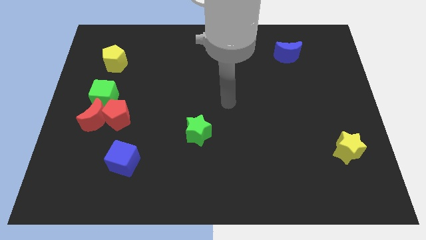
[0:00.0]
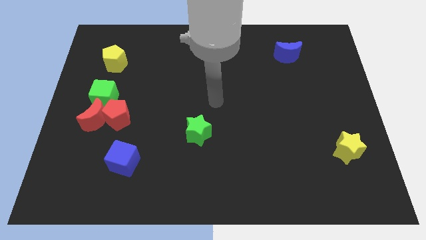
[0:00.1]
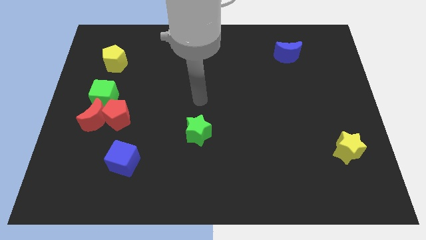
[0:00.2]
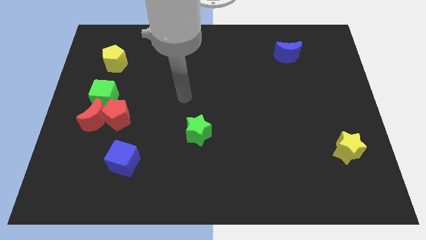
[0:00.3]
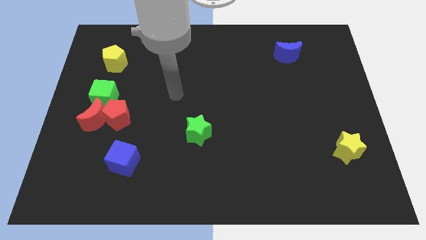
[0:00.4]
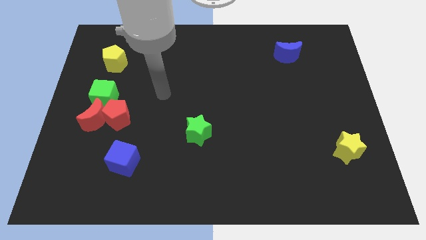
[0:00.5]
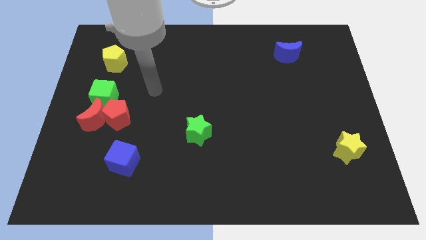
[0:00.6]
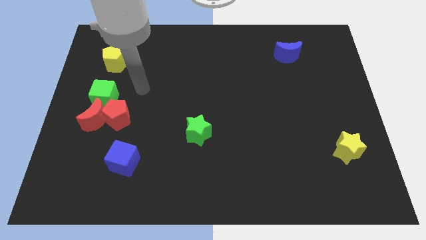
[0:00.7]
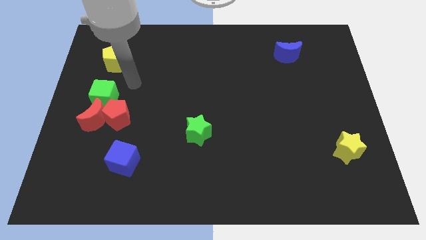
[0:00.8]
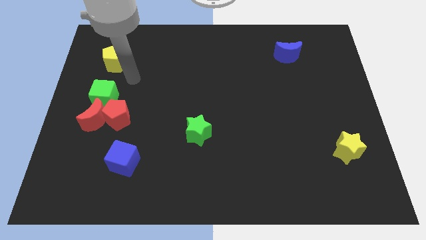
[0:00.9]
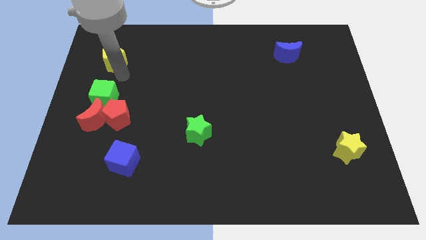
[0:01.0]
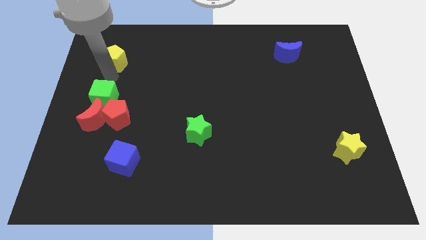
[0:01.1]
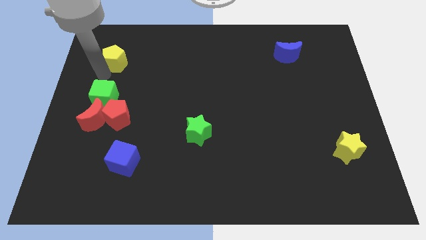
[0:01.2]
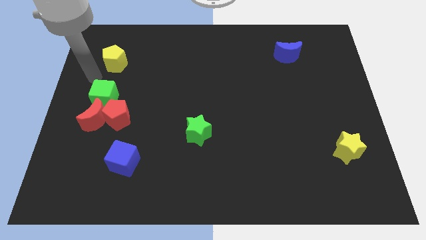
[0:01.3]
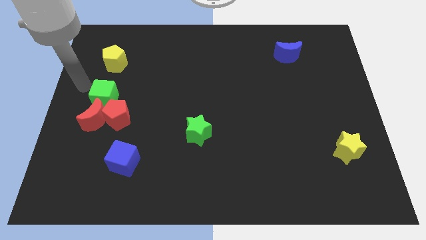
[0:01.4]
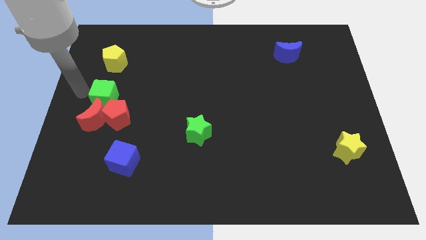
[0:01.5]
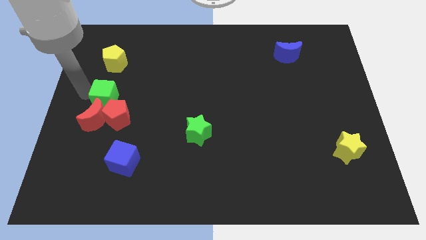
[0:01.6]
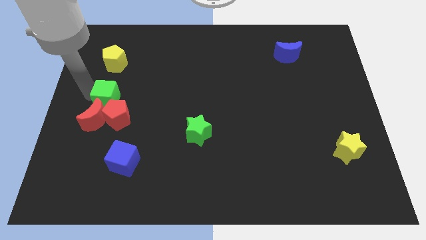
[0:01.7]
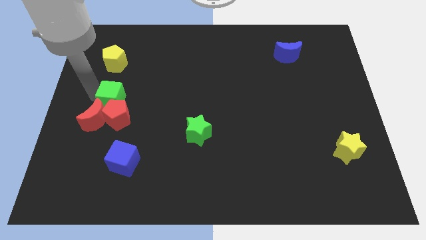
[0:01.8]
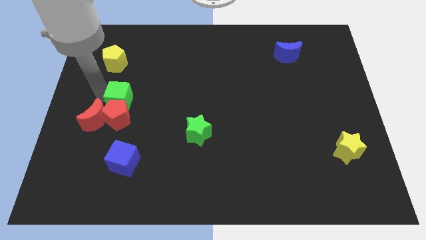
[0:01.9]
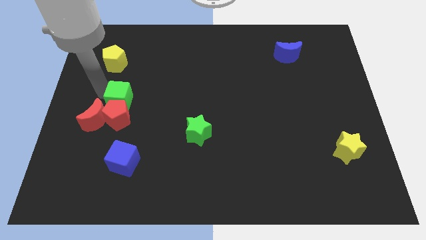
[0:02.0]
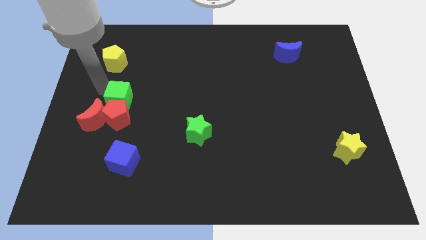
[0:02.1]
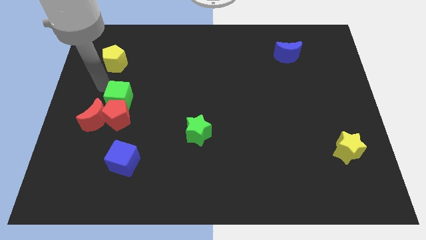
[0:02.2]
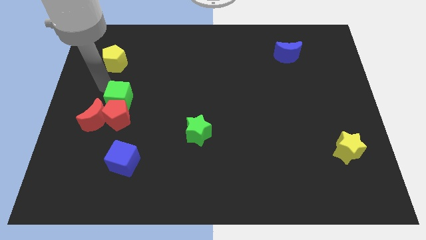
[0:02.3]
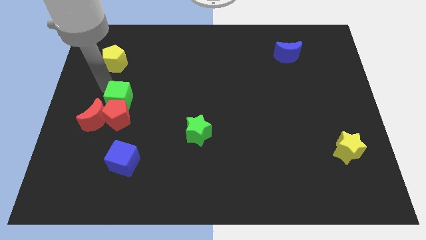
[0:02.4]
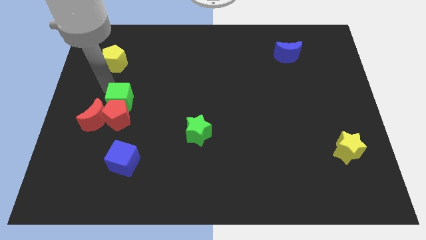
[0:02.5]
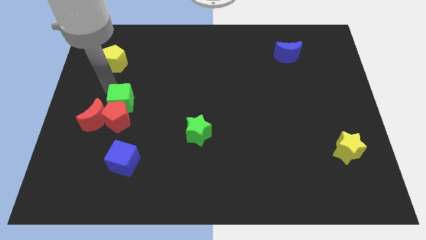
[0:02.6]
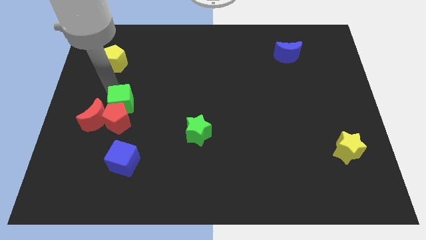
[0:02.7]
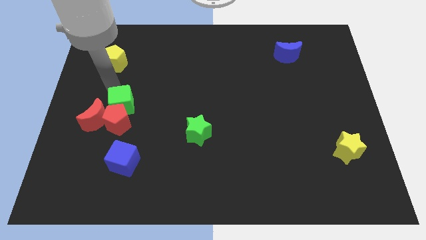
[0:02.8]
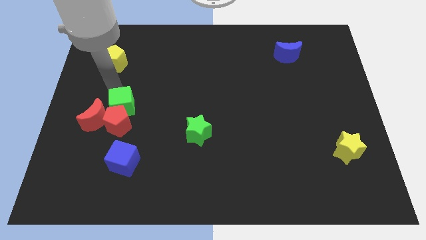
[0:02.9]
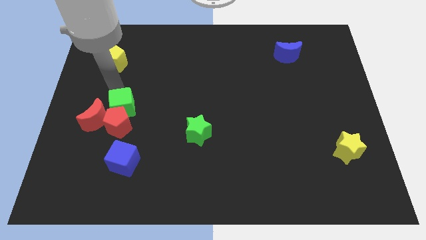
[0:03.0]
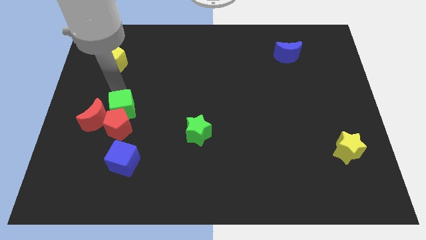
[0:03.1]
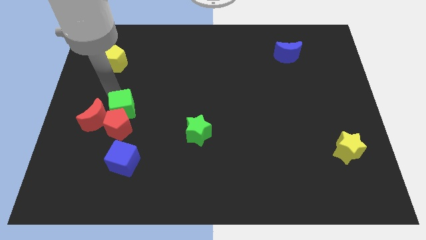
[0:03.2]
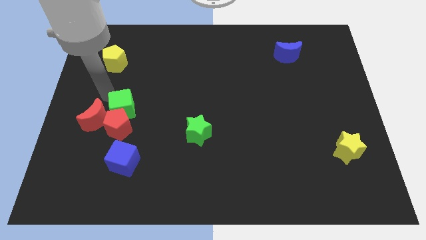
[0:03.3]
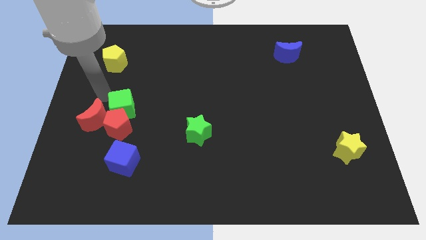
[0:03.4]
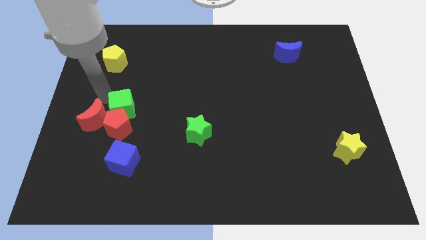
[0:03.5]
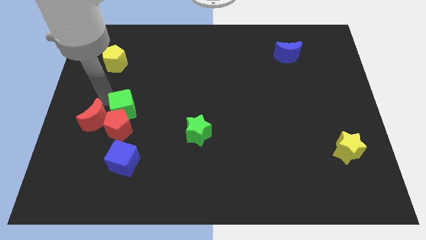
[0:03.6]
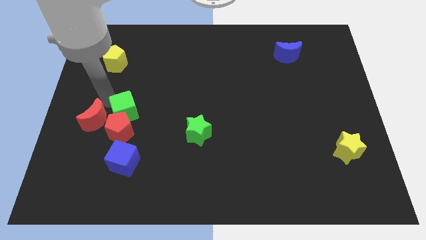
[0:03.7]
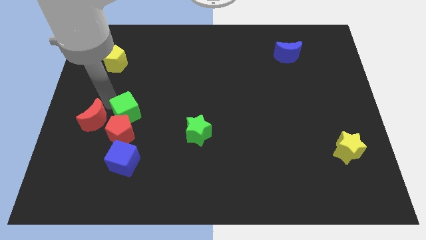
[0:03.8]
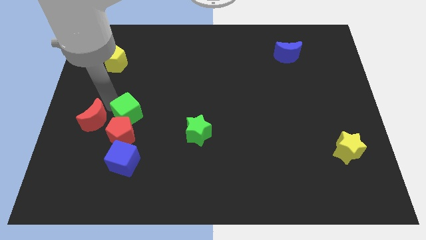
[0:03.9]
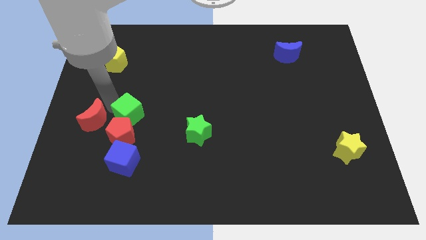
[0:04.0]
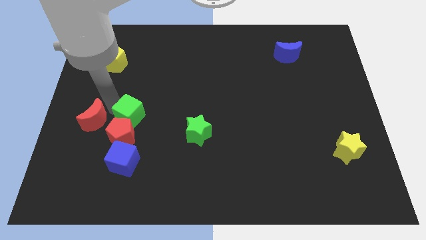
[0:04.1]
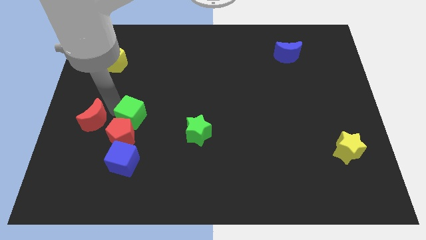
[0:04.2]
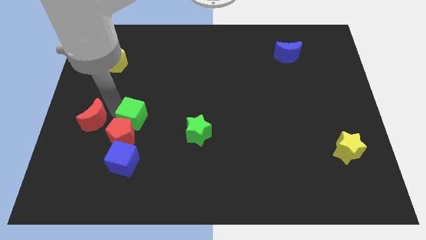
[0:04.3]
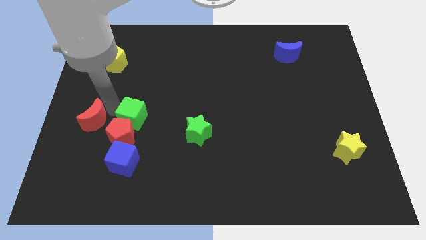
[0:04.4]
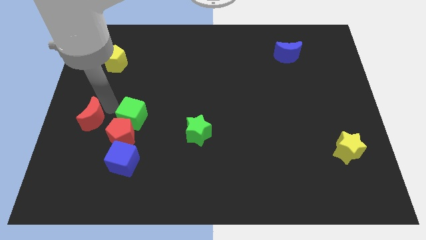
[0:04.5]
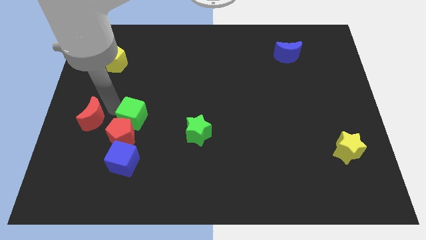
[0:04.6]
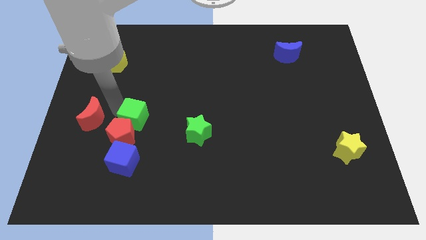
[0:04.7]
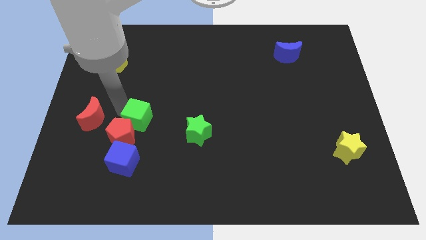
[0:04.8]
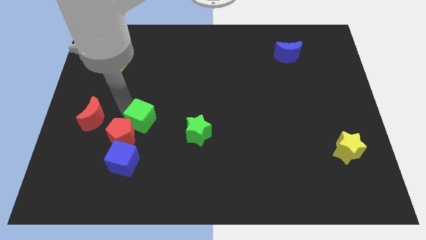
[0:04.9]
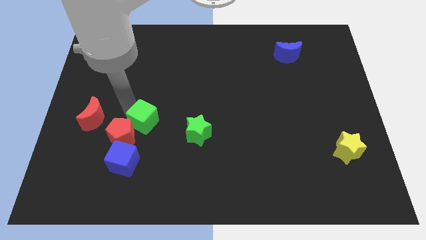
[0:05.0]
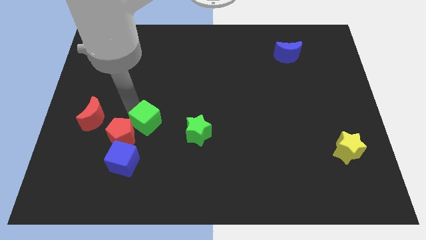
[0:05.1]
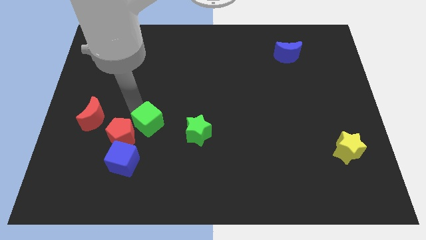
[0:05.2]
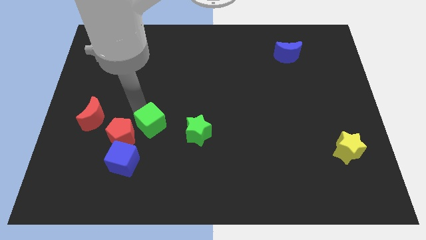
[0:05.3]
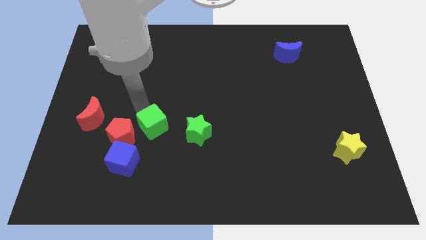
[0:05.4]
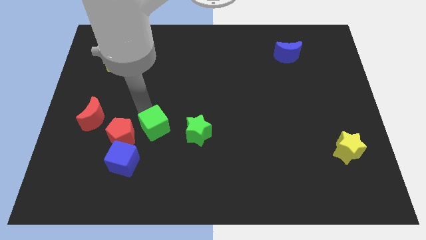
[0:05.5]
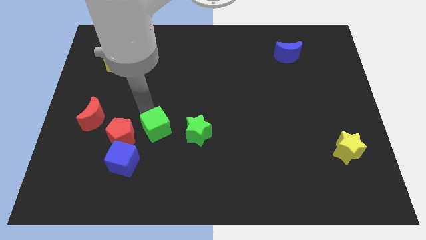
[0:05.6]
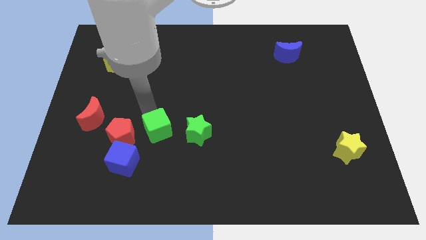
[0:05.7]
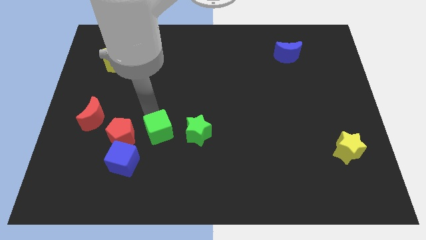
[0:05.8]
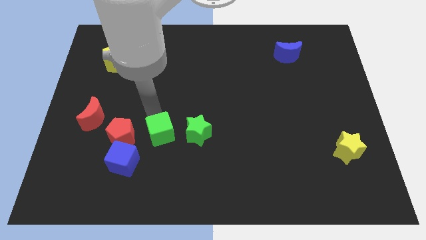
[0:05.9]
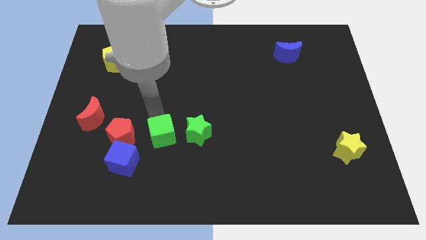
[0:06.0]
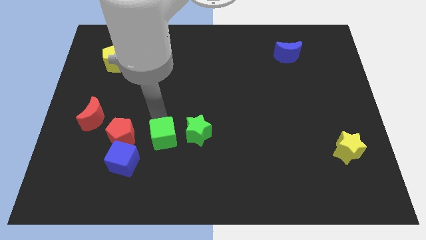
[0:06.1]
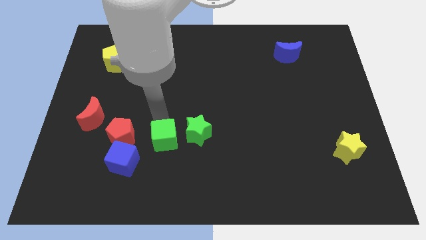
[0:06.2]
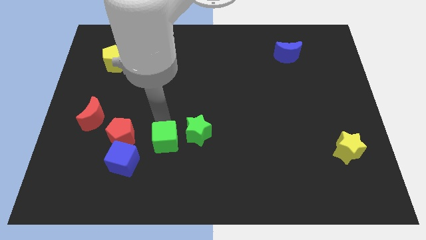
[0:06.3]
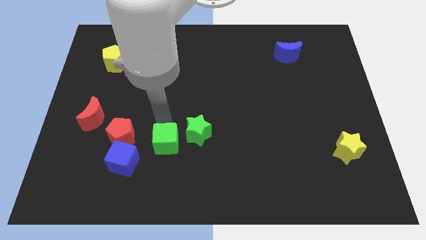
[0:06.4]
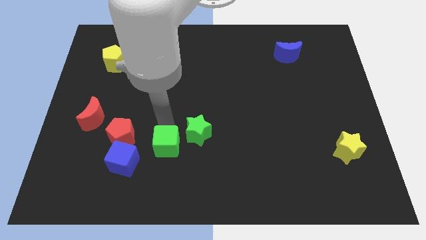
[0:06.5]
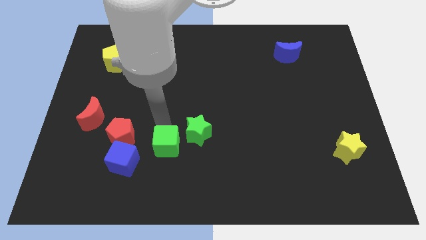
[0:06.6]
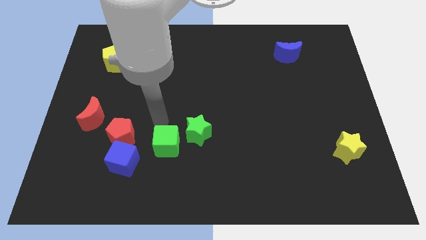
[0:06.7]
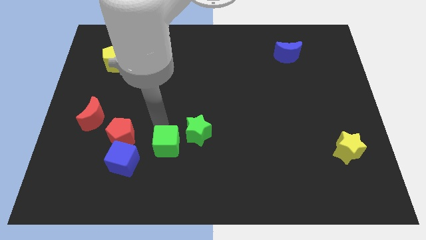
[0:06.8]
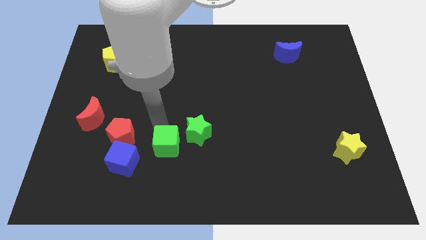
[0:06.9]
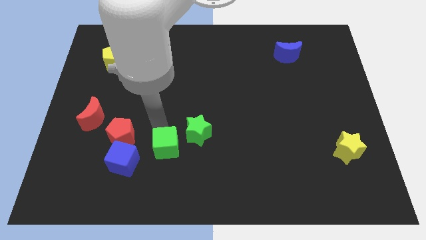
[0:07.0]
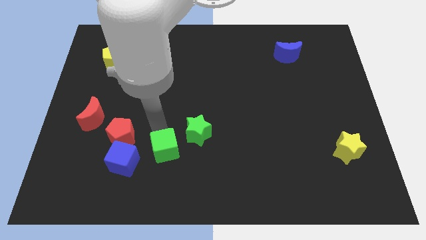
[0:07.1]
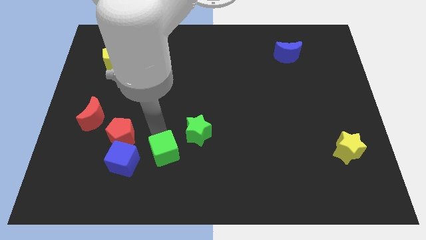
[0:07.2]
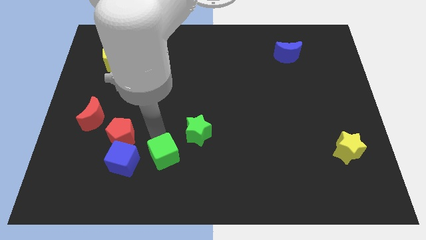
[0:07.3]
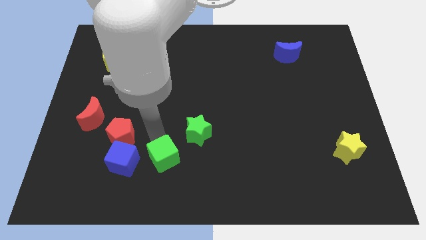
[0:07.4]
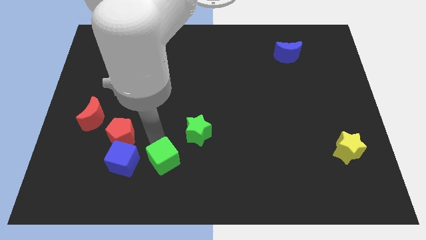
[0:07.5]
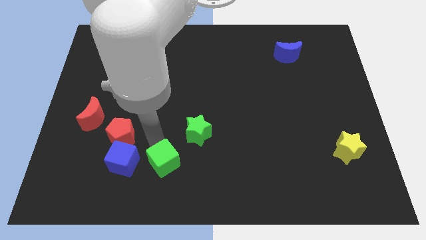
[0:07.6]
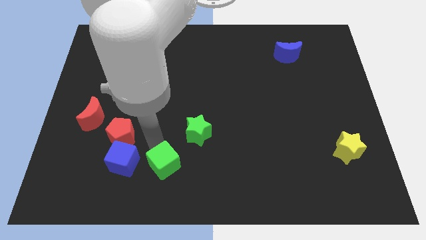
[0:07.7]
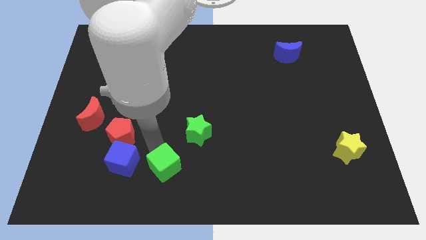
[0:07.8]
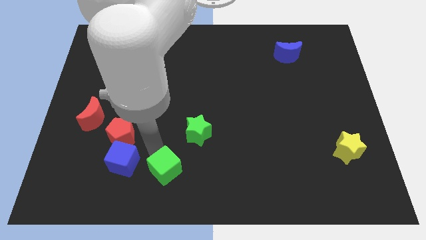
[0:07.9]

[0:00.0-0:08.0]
move the green cube to the bottom

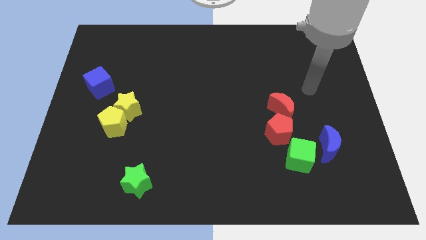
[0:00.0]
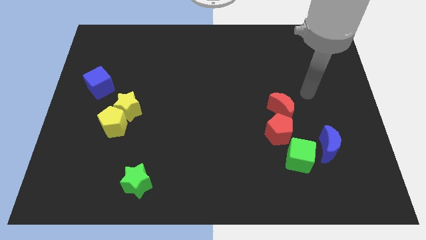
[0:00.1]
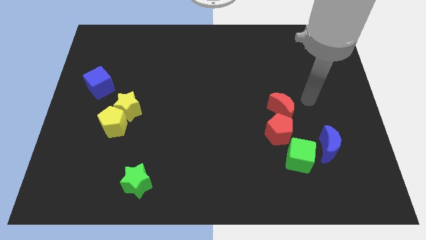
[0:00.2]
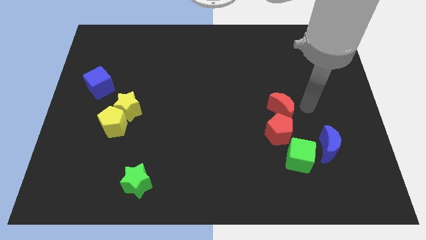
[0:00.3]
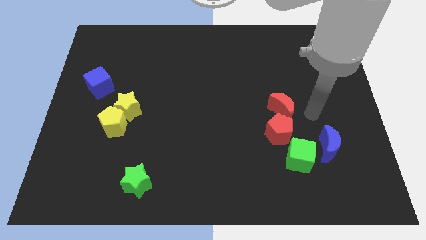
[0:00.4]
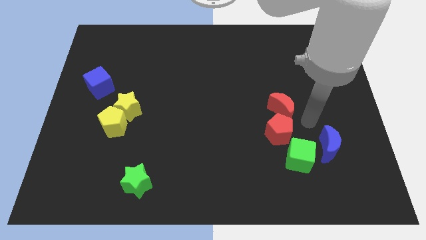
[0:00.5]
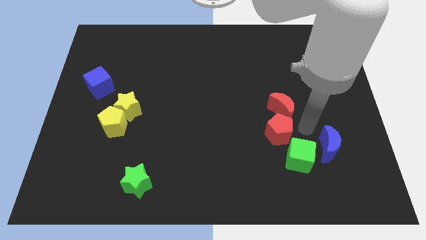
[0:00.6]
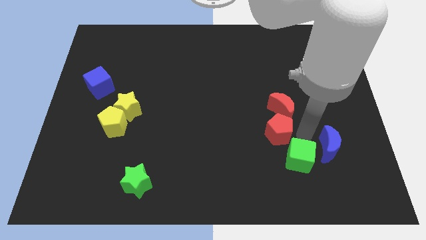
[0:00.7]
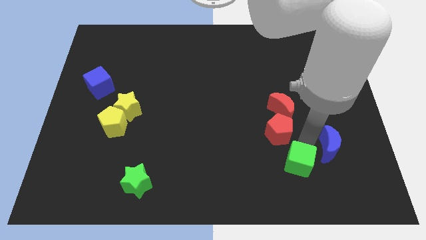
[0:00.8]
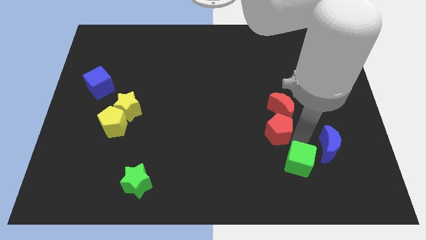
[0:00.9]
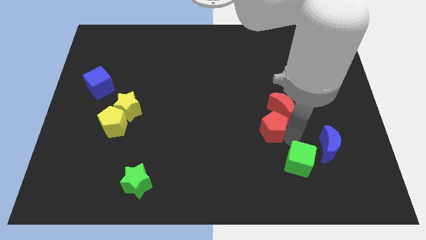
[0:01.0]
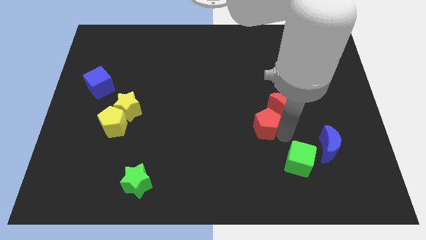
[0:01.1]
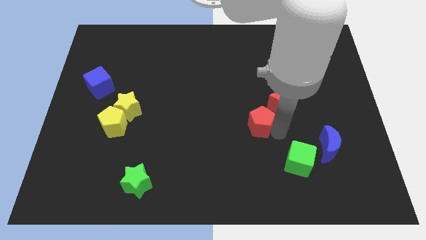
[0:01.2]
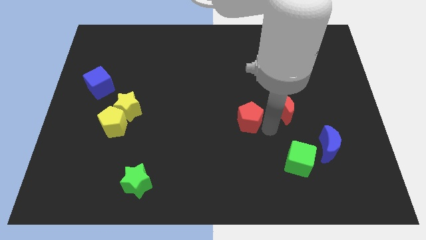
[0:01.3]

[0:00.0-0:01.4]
slide the red pentagon to the center of the board
